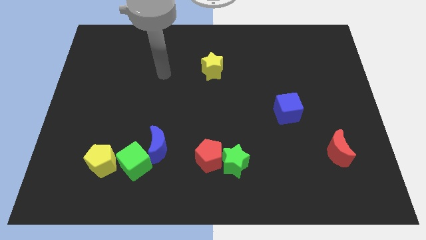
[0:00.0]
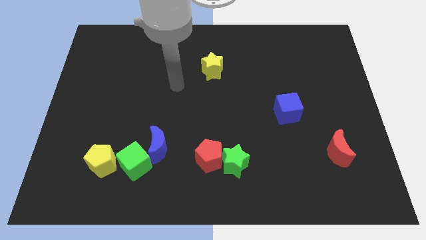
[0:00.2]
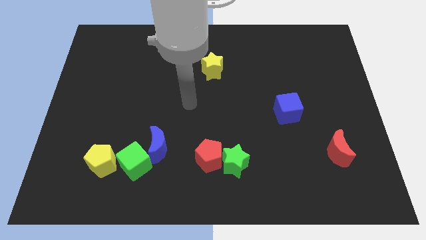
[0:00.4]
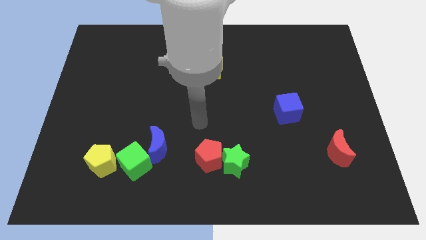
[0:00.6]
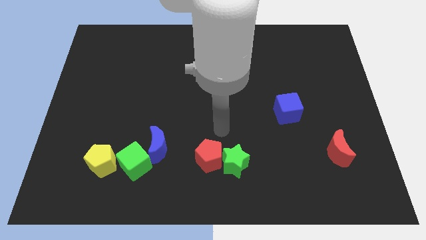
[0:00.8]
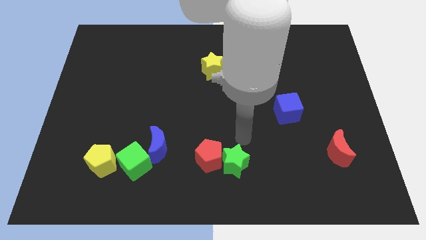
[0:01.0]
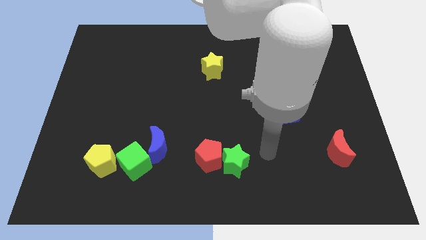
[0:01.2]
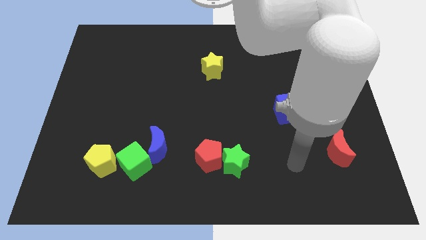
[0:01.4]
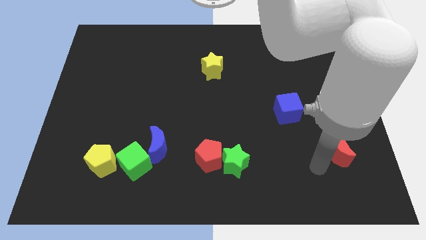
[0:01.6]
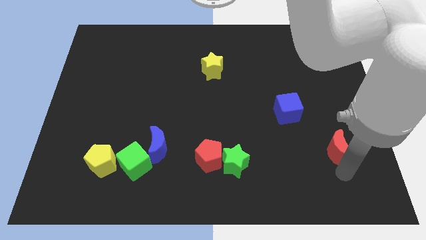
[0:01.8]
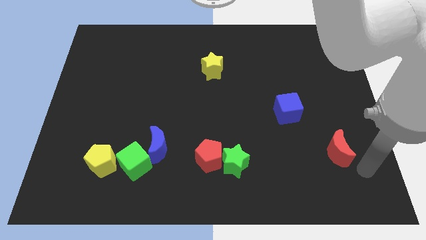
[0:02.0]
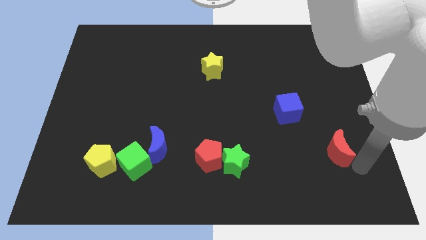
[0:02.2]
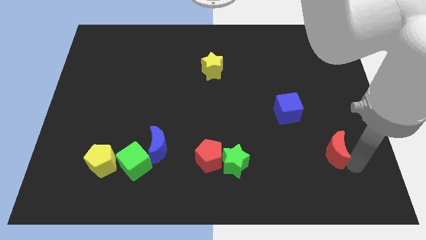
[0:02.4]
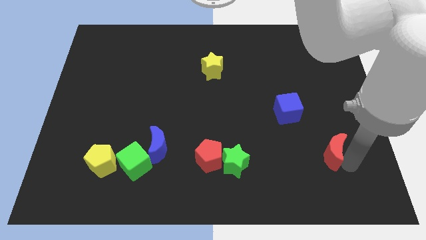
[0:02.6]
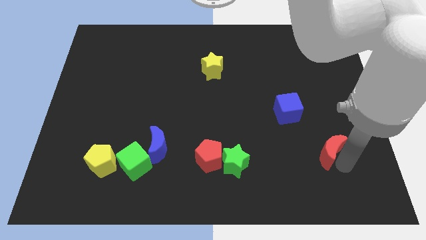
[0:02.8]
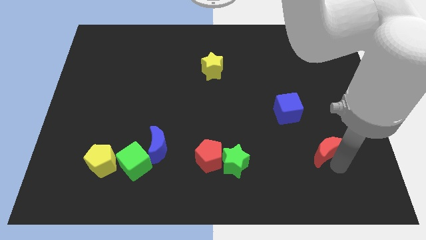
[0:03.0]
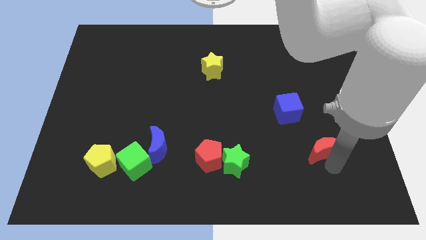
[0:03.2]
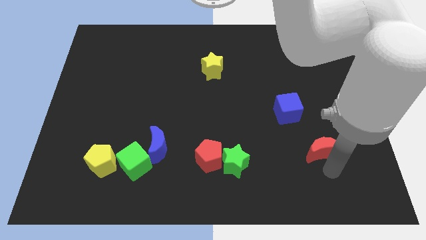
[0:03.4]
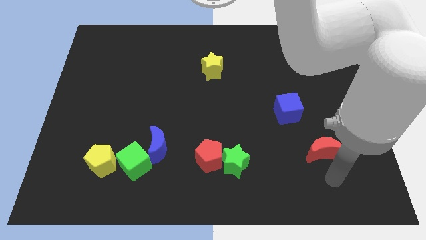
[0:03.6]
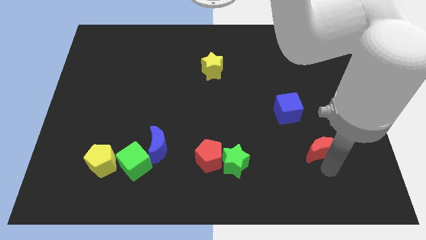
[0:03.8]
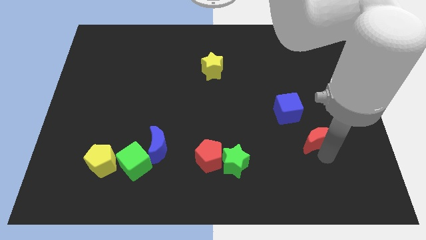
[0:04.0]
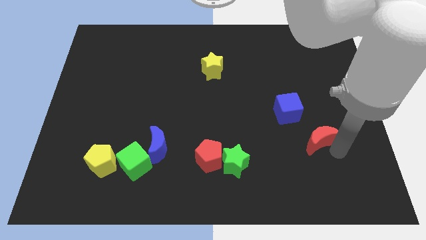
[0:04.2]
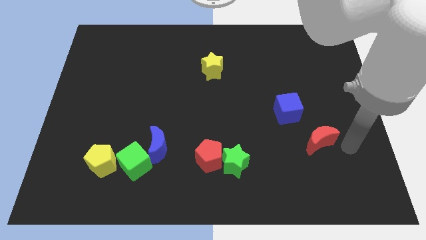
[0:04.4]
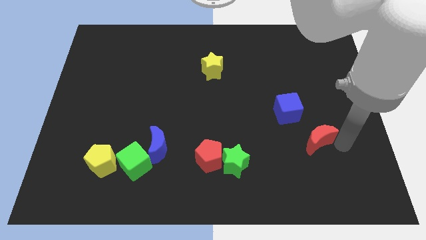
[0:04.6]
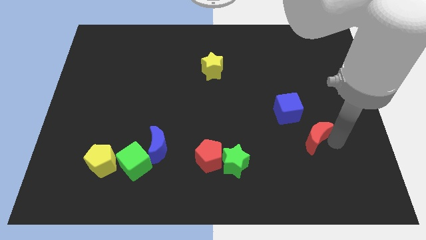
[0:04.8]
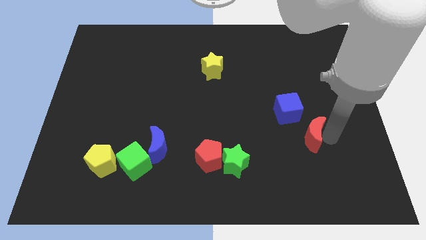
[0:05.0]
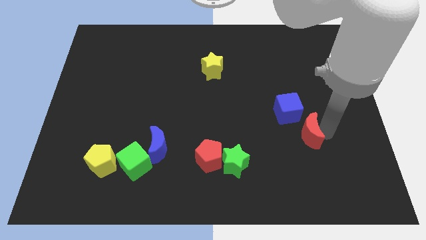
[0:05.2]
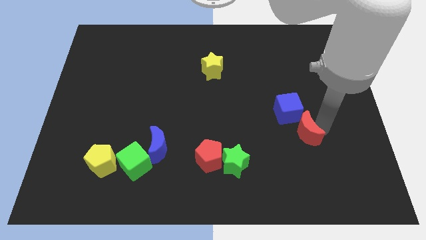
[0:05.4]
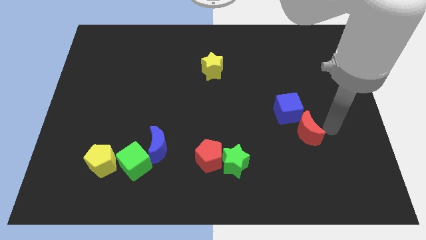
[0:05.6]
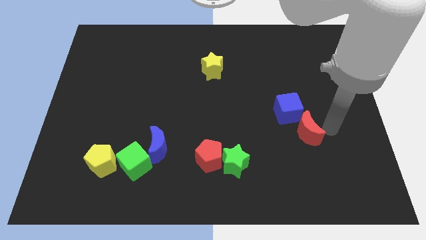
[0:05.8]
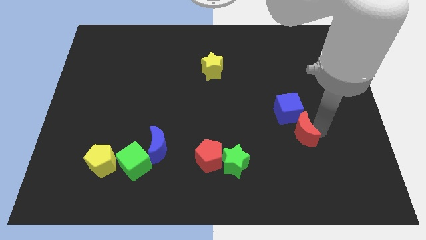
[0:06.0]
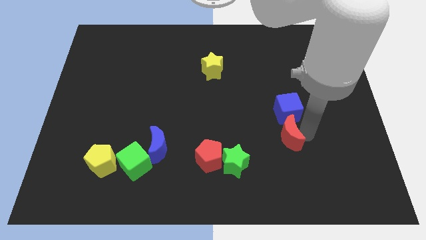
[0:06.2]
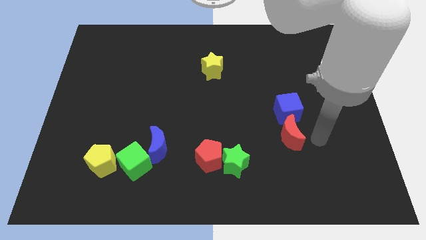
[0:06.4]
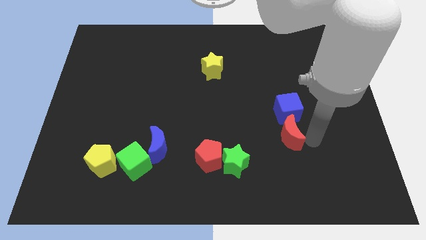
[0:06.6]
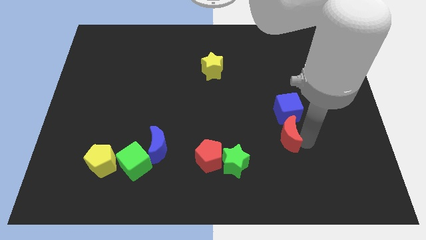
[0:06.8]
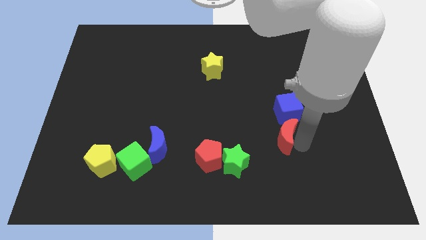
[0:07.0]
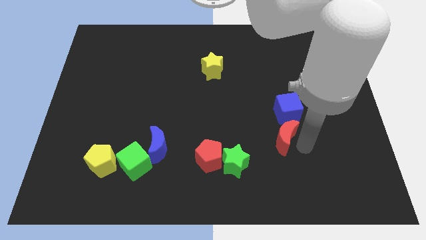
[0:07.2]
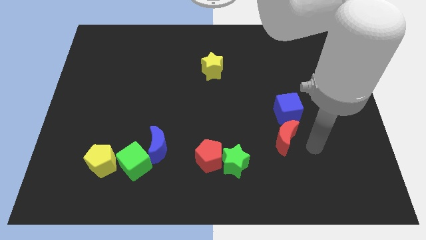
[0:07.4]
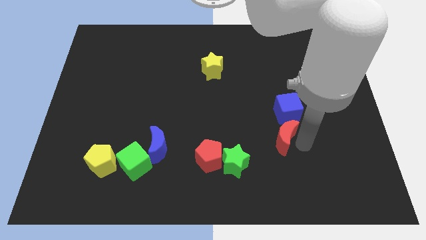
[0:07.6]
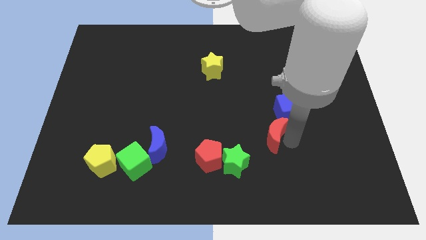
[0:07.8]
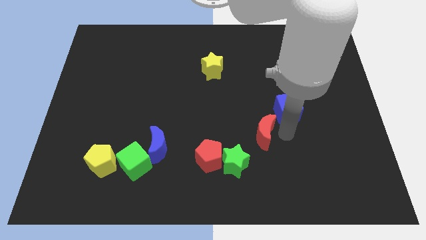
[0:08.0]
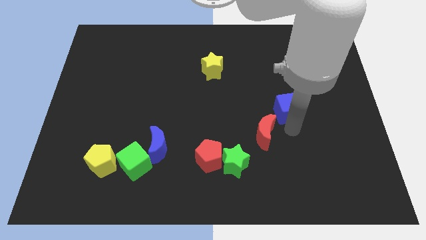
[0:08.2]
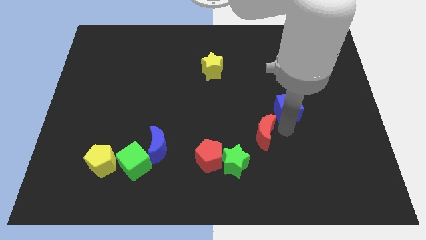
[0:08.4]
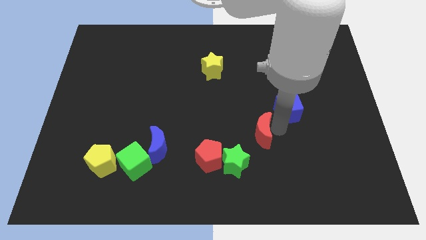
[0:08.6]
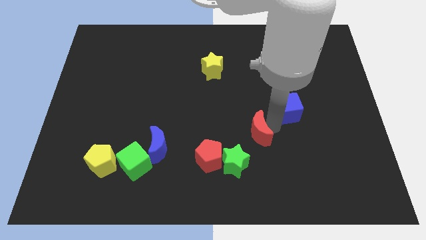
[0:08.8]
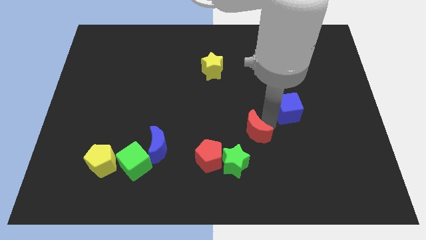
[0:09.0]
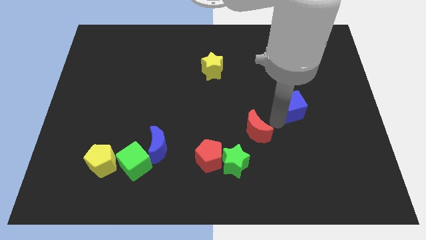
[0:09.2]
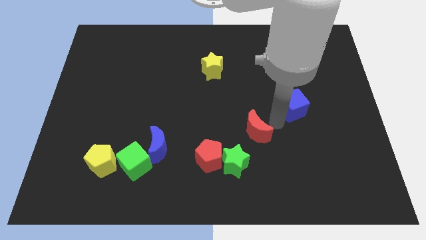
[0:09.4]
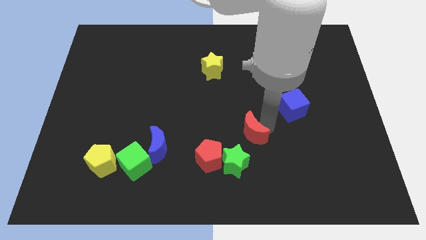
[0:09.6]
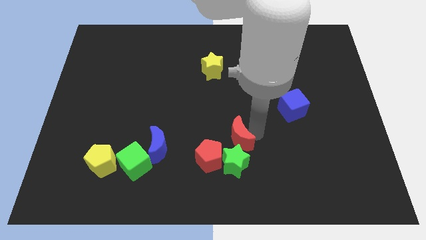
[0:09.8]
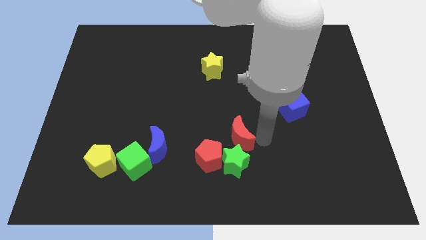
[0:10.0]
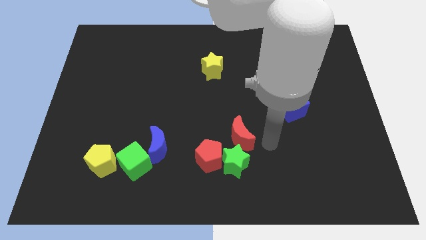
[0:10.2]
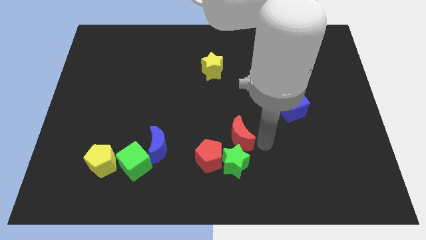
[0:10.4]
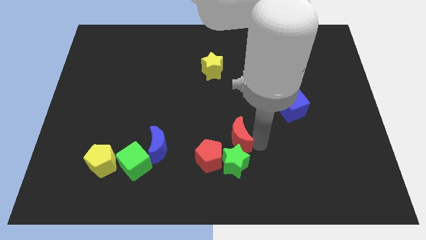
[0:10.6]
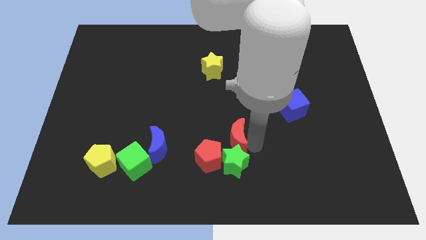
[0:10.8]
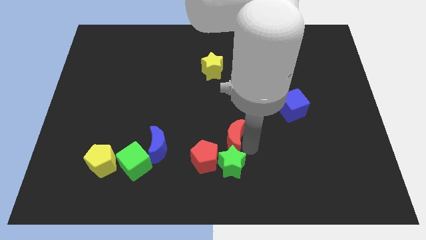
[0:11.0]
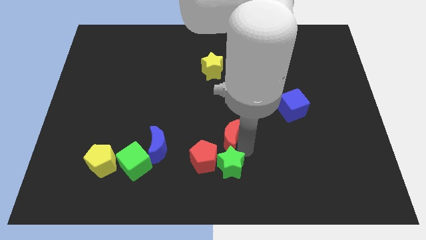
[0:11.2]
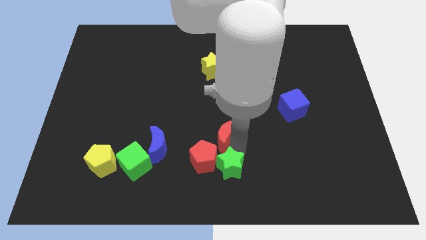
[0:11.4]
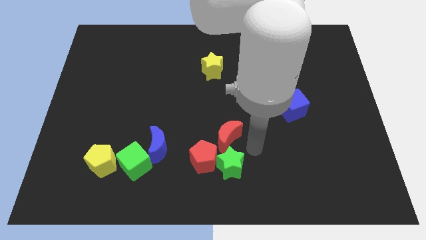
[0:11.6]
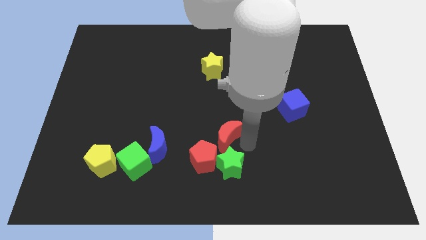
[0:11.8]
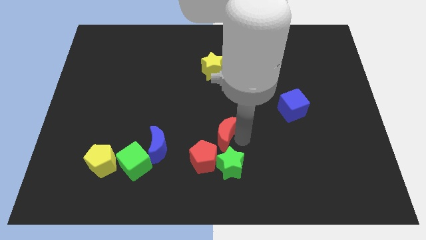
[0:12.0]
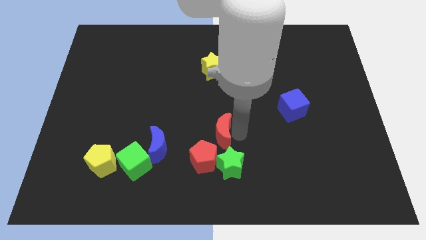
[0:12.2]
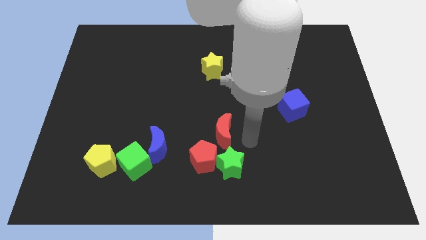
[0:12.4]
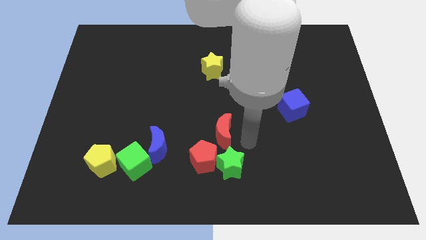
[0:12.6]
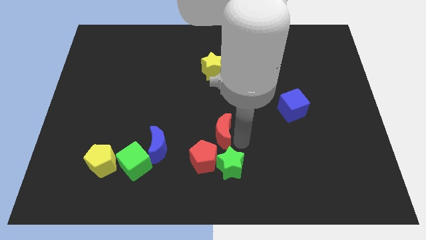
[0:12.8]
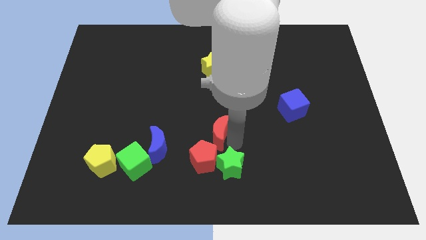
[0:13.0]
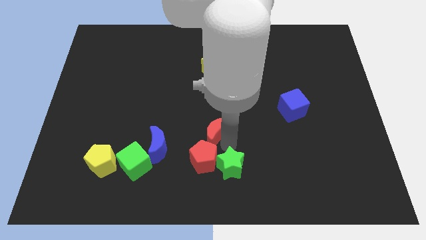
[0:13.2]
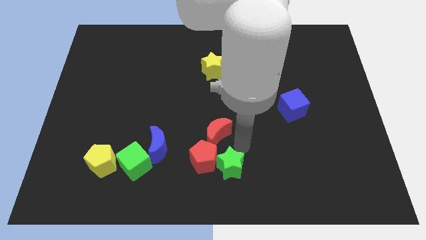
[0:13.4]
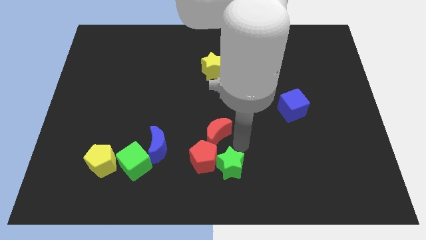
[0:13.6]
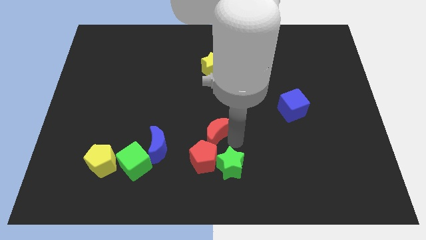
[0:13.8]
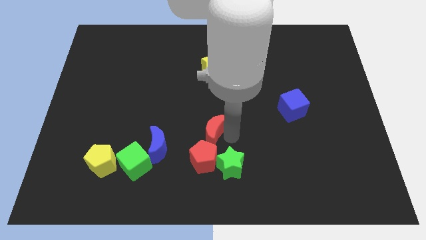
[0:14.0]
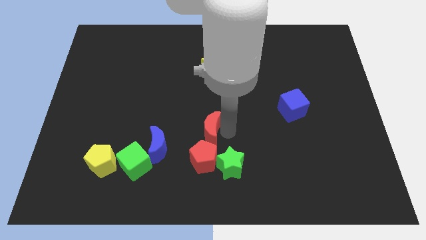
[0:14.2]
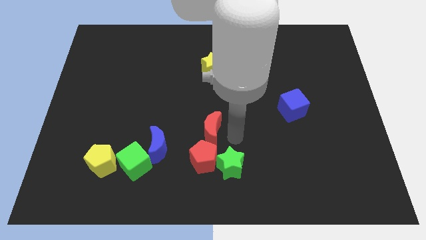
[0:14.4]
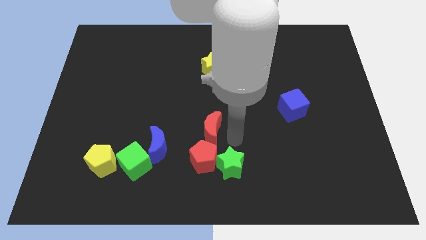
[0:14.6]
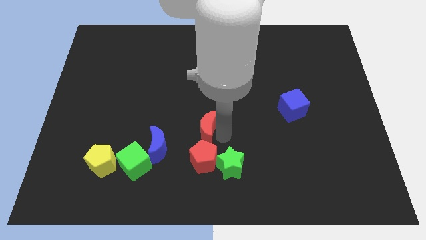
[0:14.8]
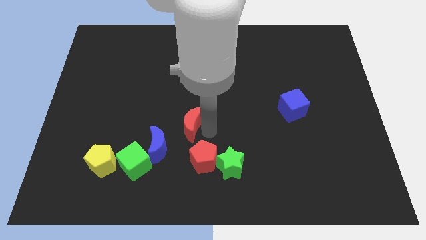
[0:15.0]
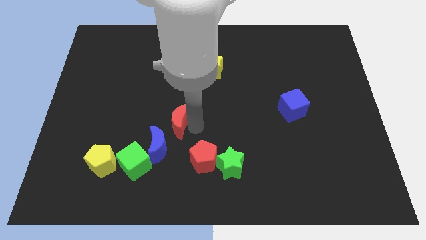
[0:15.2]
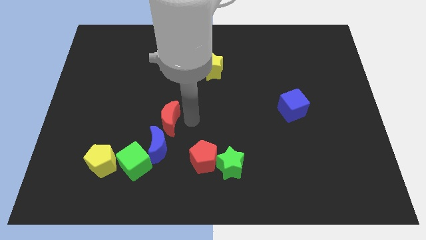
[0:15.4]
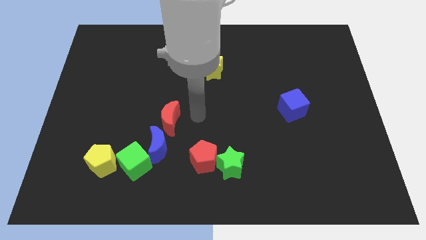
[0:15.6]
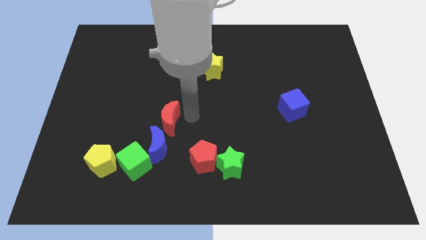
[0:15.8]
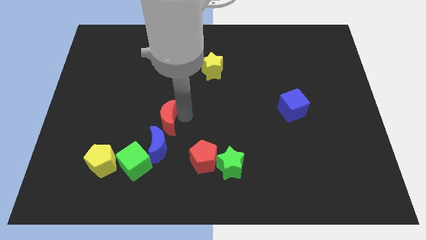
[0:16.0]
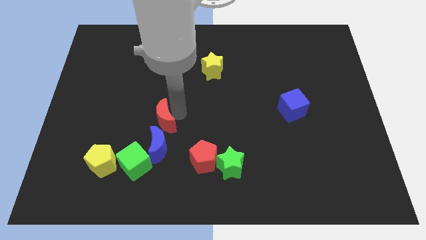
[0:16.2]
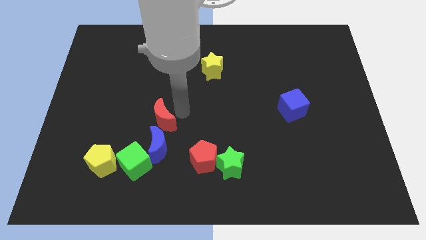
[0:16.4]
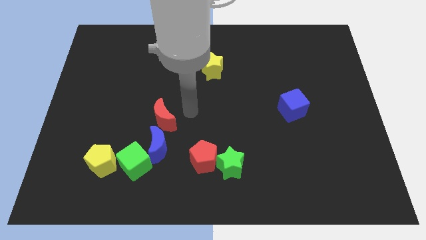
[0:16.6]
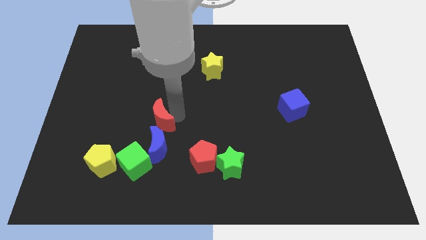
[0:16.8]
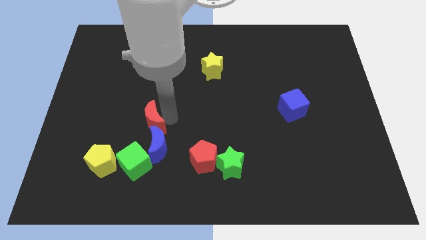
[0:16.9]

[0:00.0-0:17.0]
put the red moon to the top left of the blue moon
